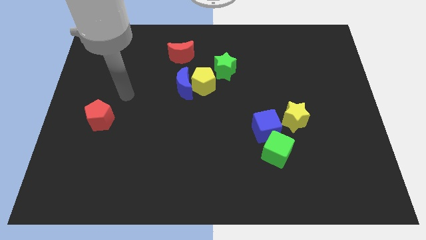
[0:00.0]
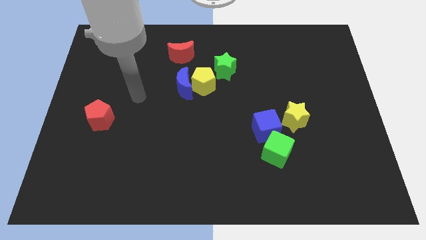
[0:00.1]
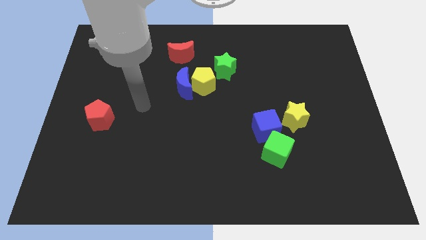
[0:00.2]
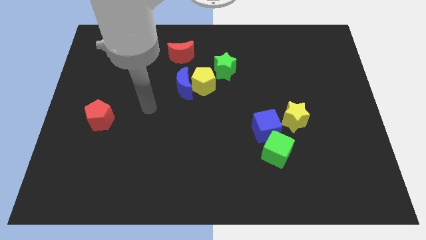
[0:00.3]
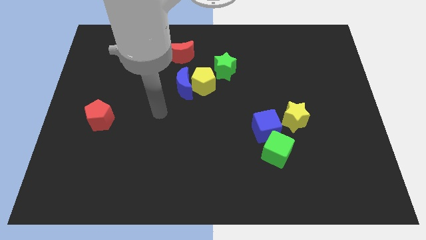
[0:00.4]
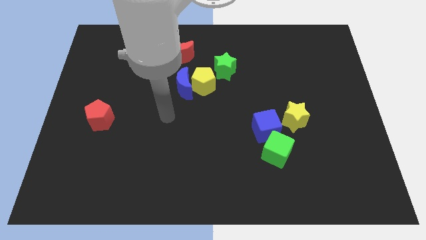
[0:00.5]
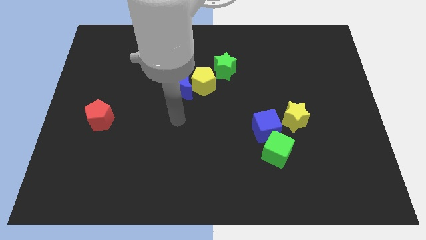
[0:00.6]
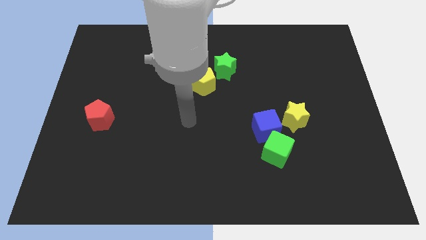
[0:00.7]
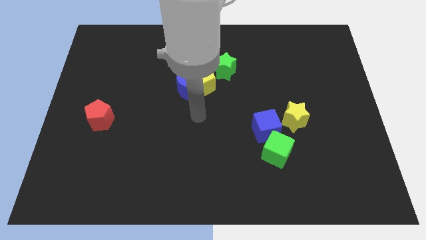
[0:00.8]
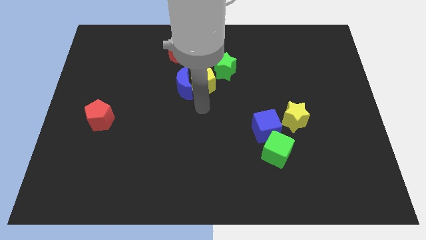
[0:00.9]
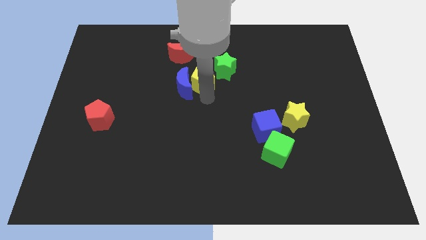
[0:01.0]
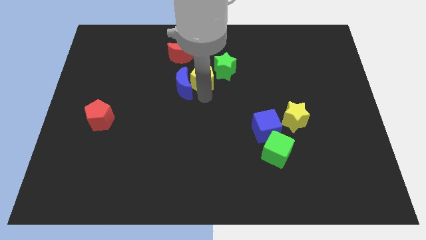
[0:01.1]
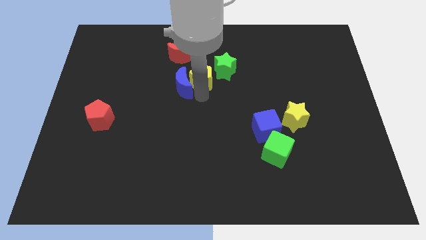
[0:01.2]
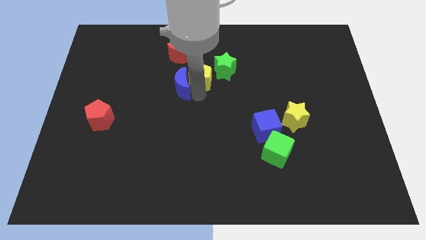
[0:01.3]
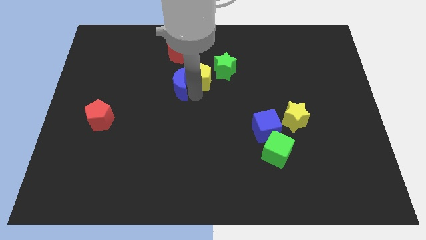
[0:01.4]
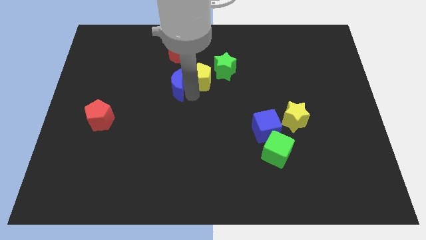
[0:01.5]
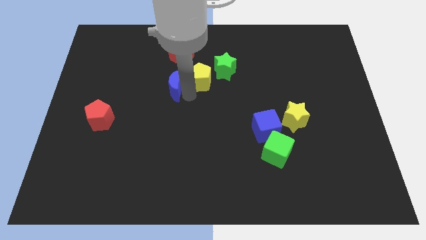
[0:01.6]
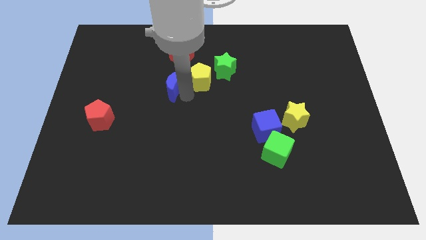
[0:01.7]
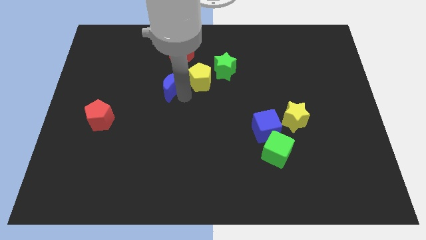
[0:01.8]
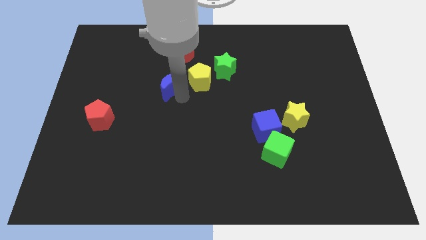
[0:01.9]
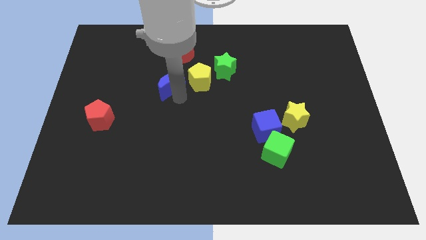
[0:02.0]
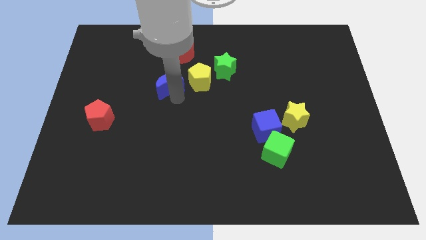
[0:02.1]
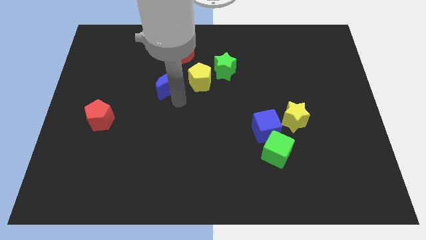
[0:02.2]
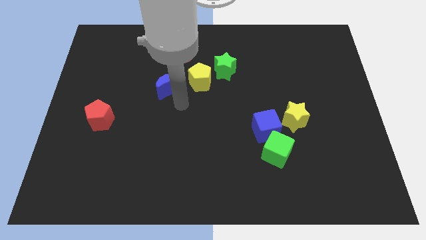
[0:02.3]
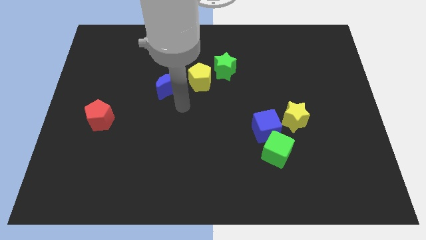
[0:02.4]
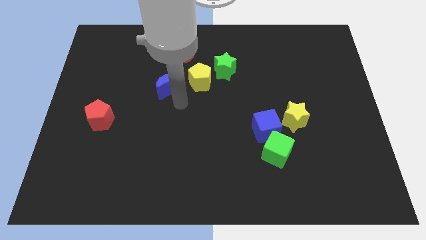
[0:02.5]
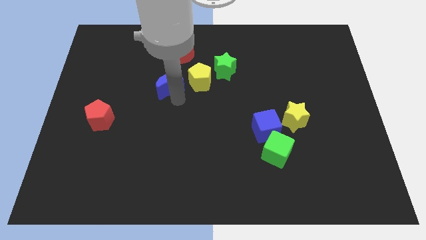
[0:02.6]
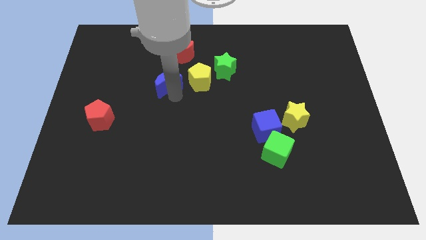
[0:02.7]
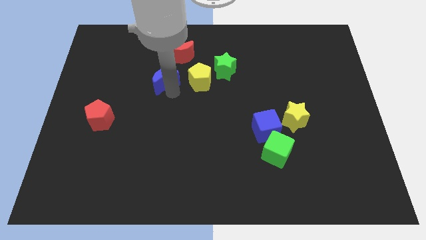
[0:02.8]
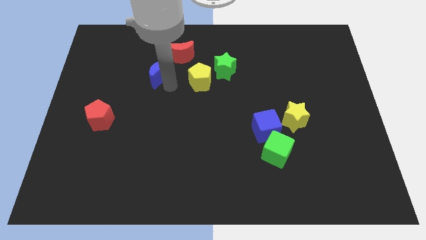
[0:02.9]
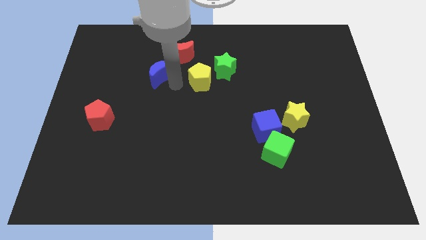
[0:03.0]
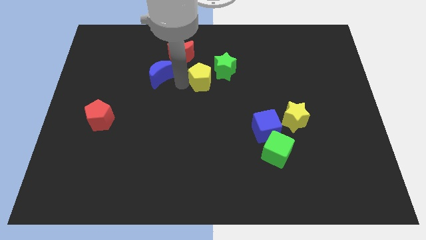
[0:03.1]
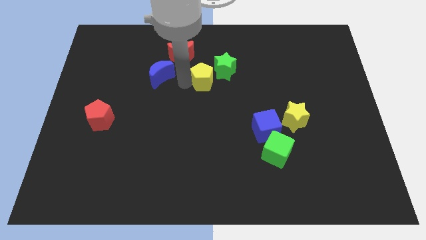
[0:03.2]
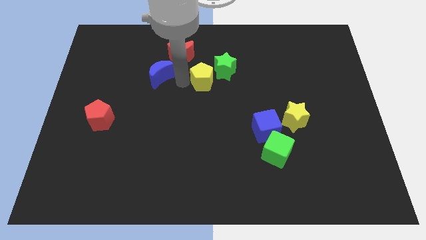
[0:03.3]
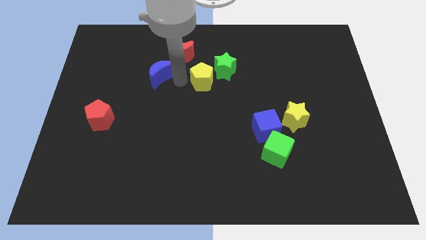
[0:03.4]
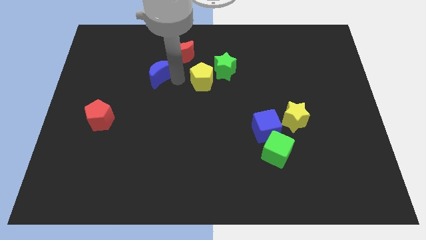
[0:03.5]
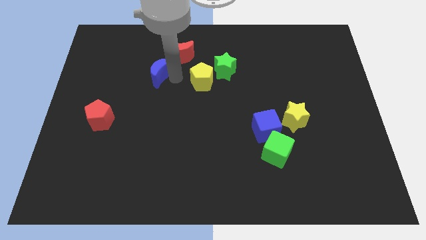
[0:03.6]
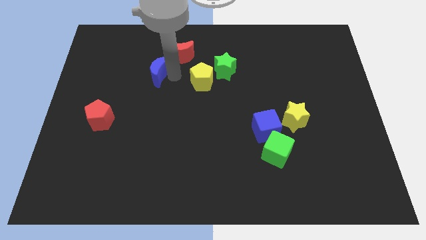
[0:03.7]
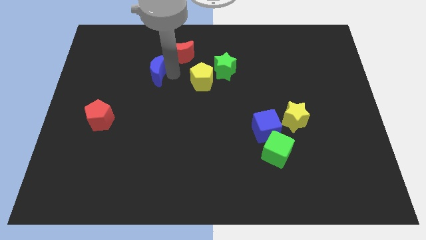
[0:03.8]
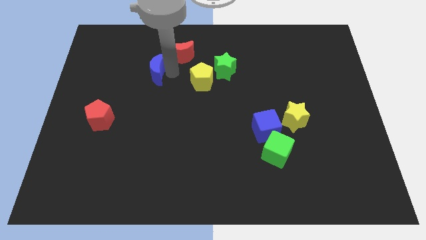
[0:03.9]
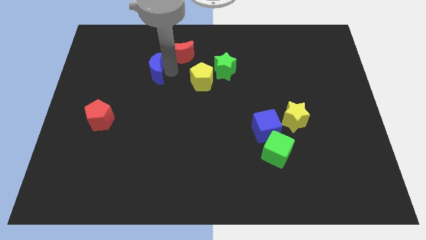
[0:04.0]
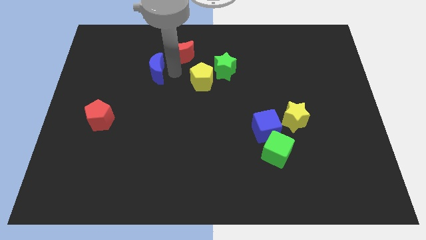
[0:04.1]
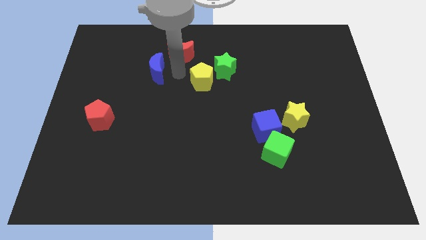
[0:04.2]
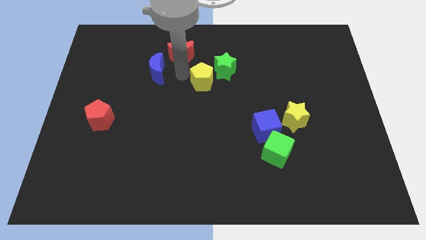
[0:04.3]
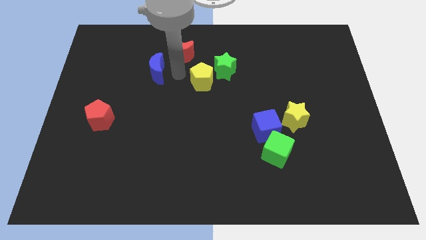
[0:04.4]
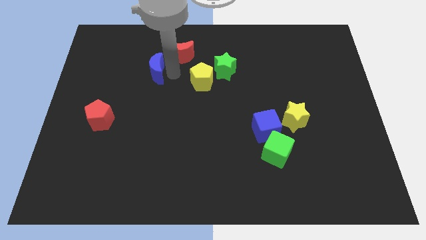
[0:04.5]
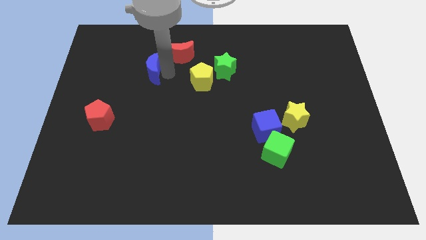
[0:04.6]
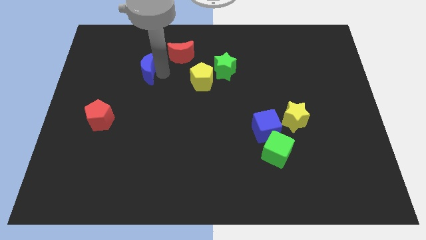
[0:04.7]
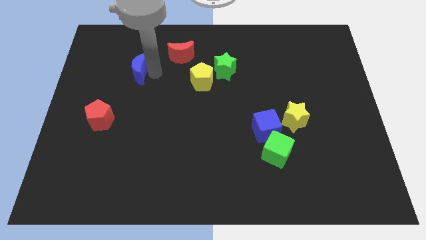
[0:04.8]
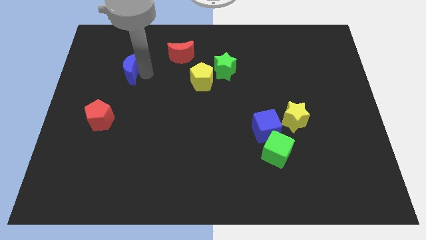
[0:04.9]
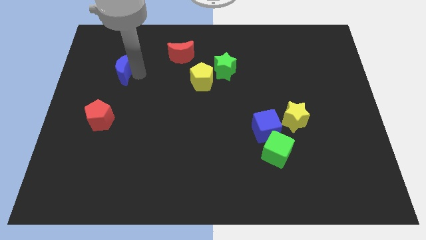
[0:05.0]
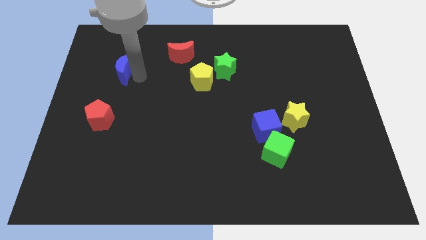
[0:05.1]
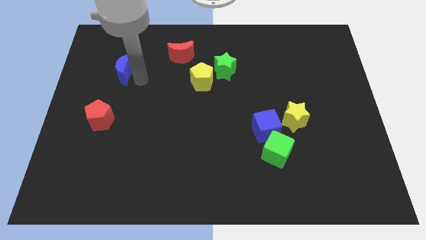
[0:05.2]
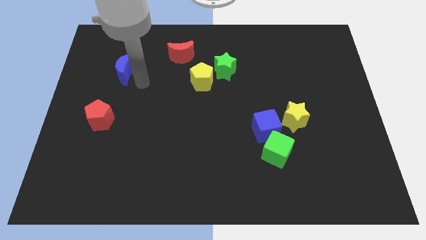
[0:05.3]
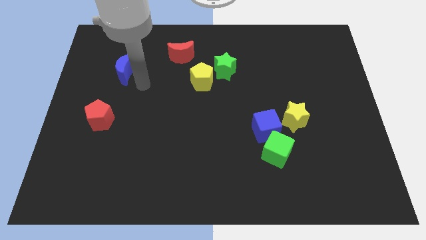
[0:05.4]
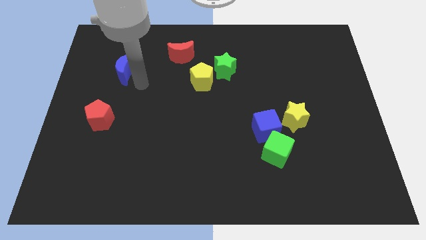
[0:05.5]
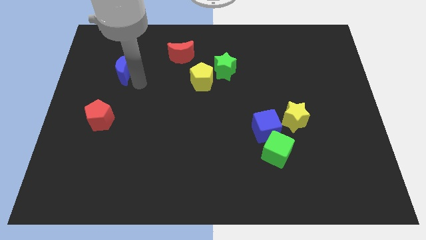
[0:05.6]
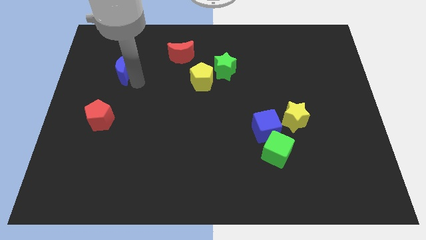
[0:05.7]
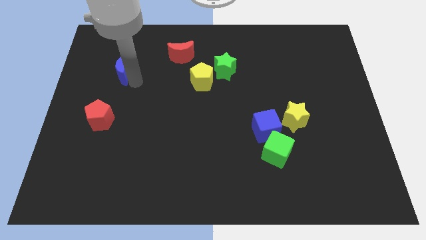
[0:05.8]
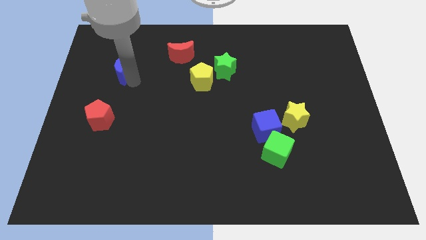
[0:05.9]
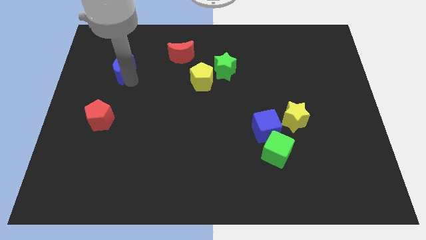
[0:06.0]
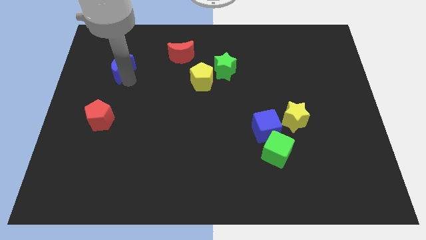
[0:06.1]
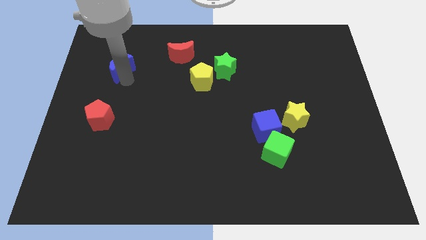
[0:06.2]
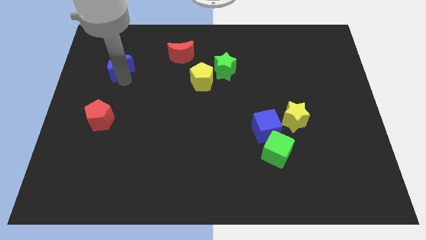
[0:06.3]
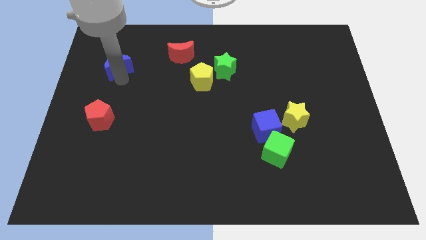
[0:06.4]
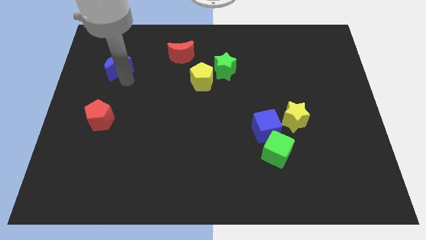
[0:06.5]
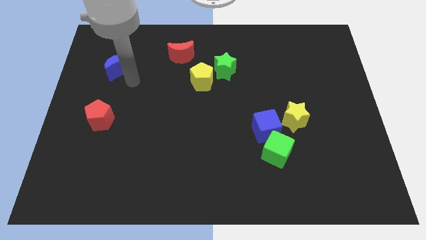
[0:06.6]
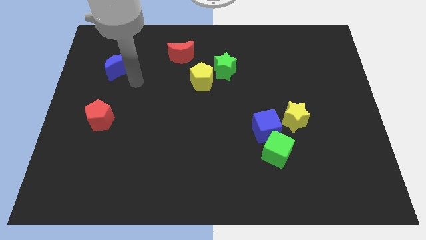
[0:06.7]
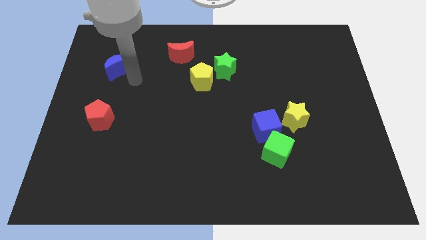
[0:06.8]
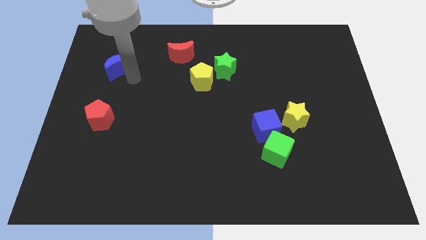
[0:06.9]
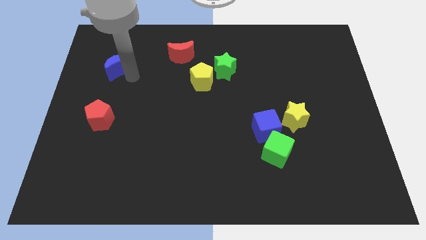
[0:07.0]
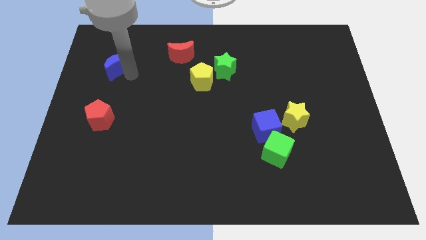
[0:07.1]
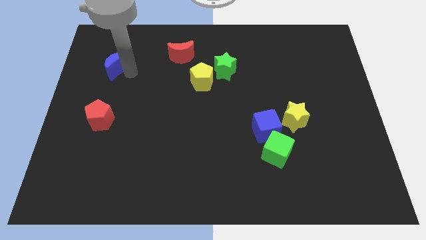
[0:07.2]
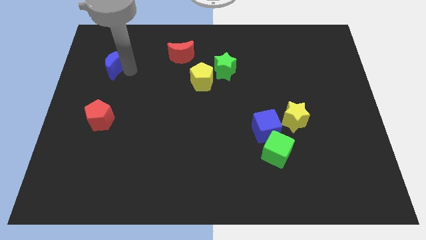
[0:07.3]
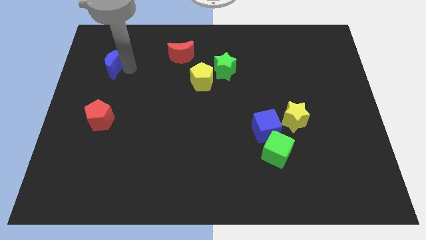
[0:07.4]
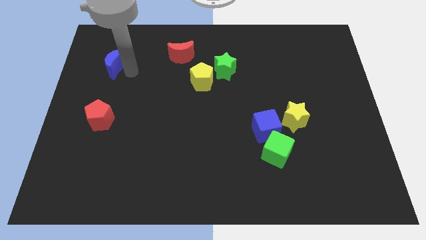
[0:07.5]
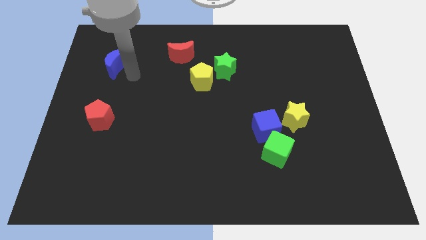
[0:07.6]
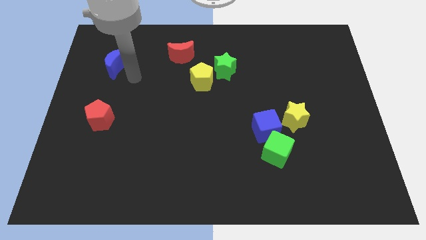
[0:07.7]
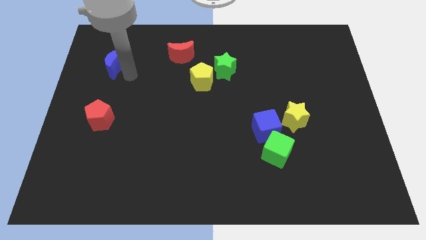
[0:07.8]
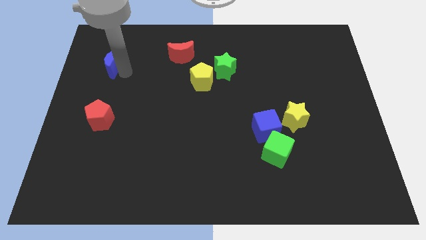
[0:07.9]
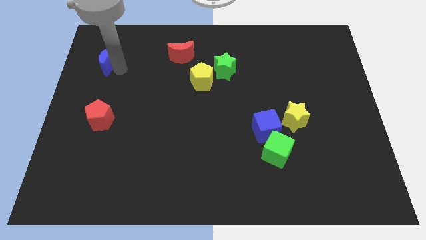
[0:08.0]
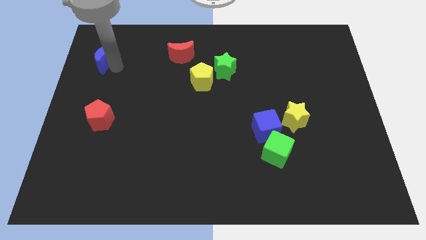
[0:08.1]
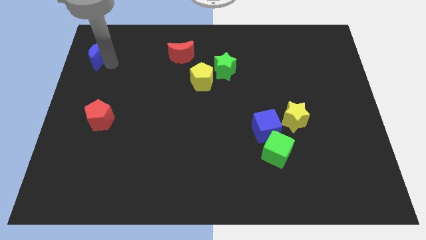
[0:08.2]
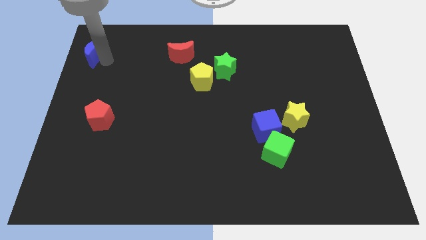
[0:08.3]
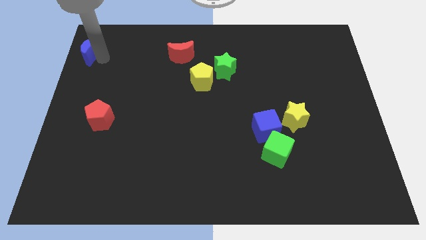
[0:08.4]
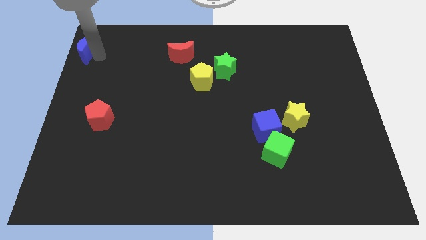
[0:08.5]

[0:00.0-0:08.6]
push the blue moon to the top left corner
